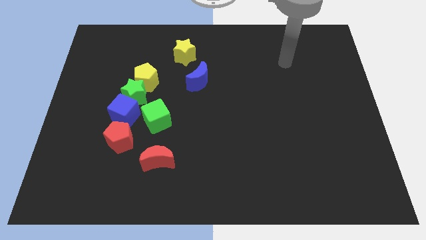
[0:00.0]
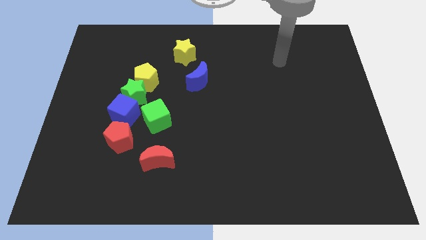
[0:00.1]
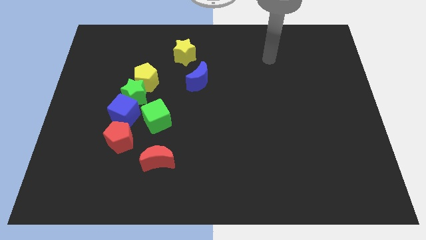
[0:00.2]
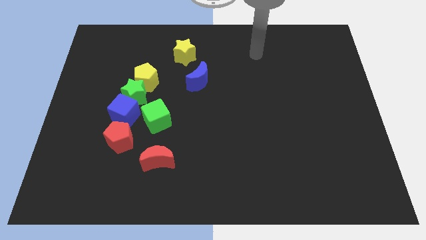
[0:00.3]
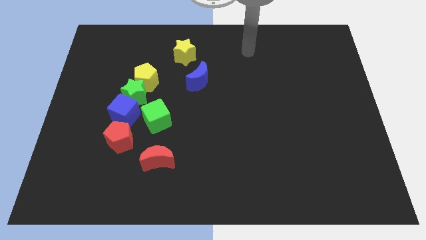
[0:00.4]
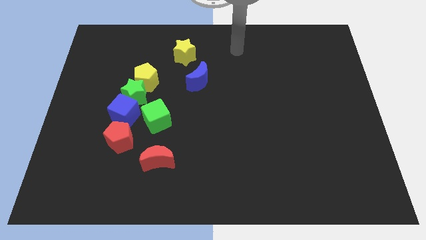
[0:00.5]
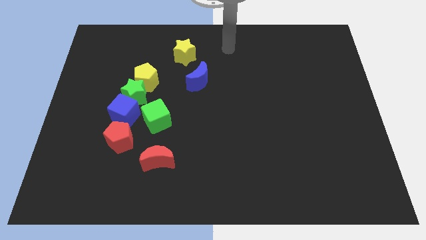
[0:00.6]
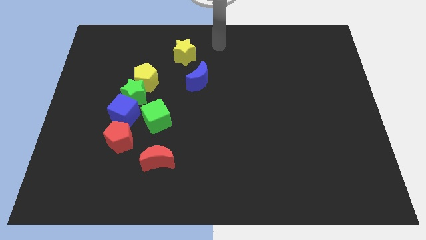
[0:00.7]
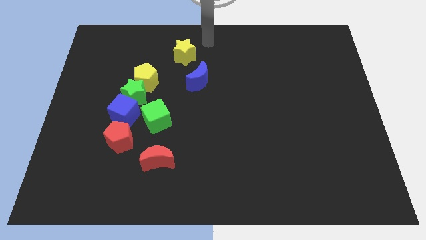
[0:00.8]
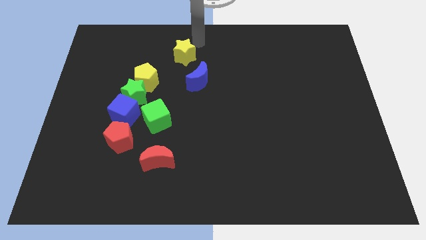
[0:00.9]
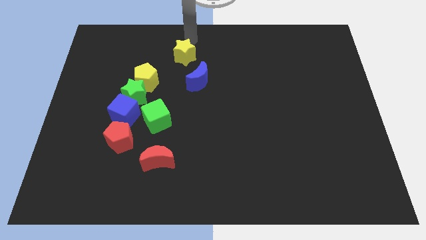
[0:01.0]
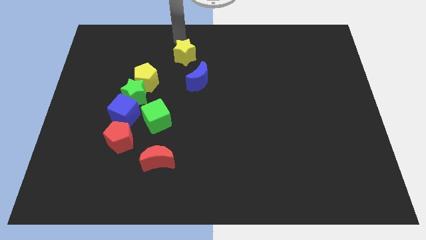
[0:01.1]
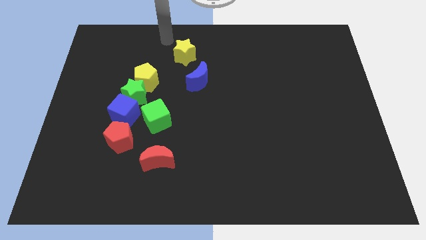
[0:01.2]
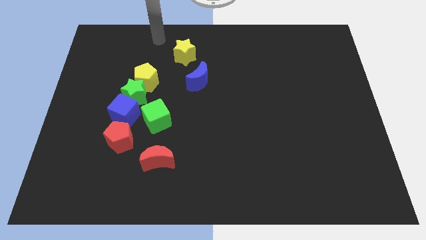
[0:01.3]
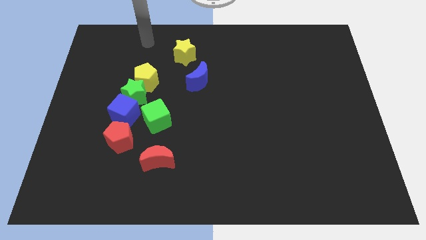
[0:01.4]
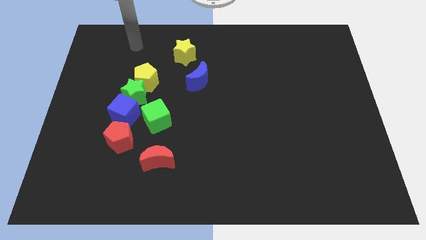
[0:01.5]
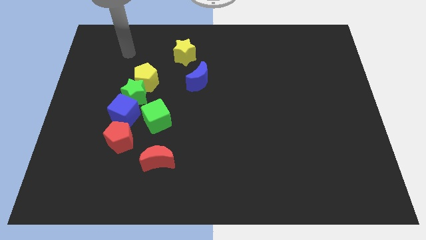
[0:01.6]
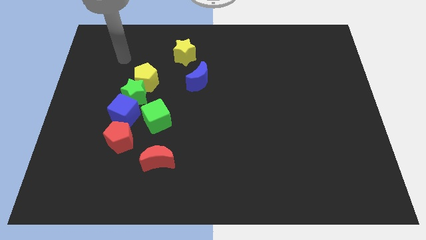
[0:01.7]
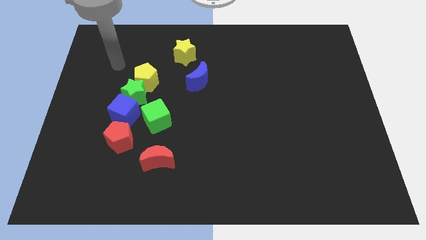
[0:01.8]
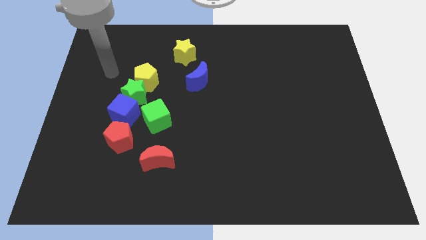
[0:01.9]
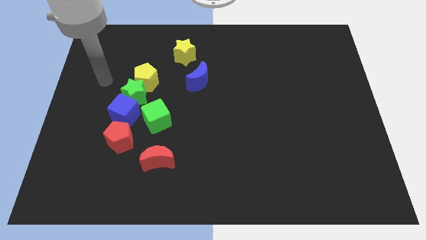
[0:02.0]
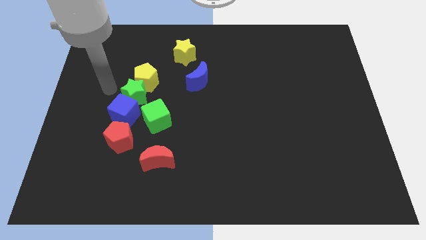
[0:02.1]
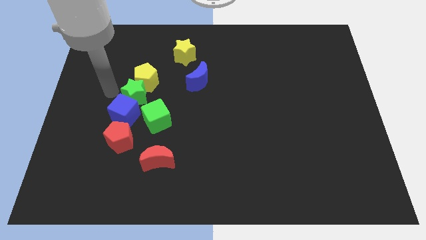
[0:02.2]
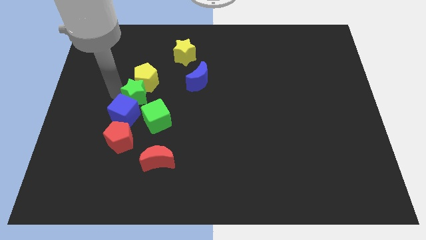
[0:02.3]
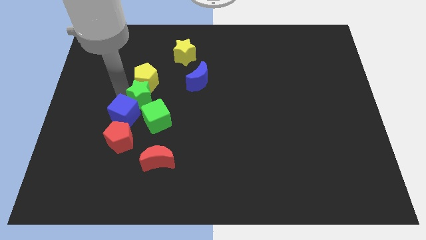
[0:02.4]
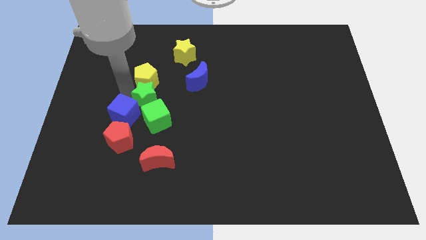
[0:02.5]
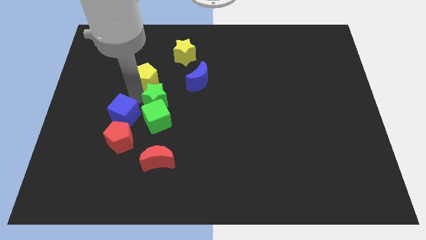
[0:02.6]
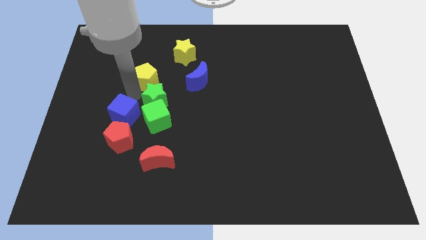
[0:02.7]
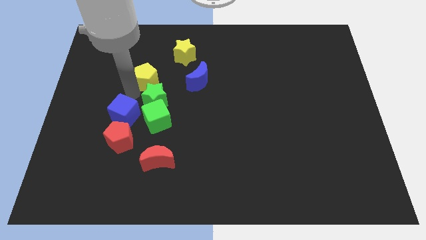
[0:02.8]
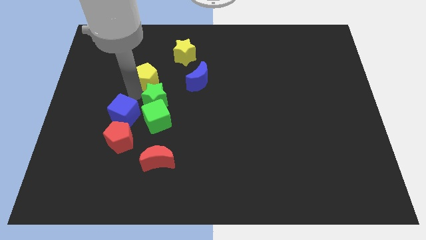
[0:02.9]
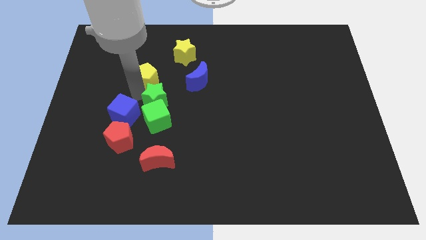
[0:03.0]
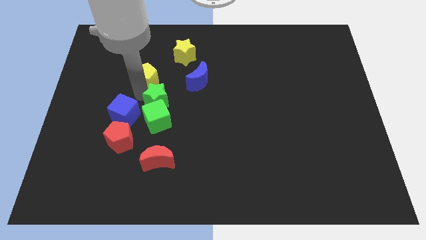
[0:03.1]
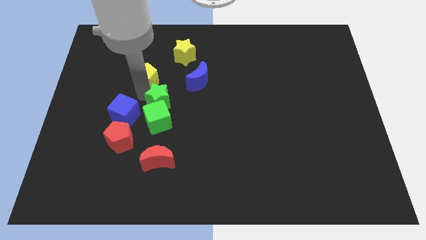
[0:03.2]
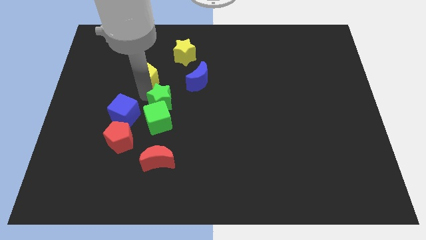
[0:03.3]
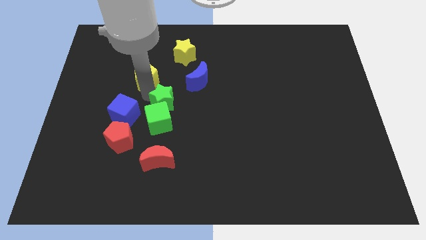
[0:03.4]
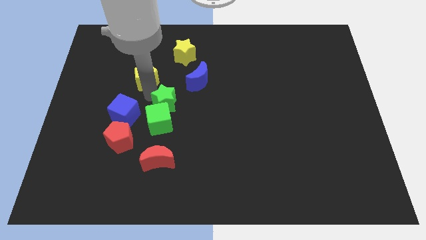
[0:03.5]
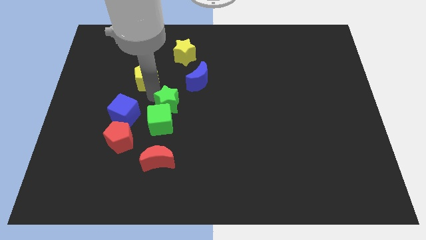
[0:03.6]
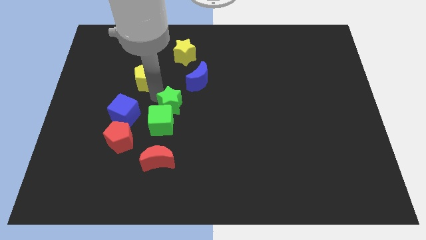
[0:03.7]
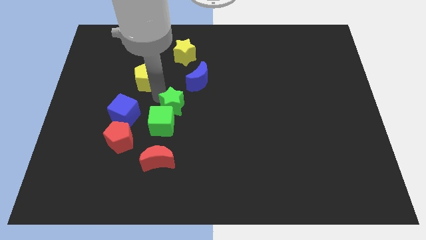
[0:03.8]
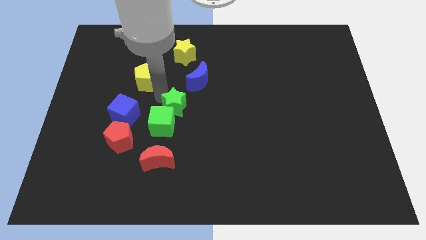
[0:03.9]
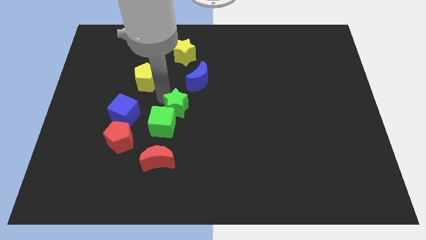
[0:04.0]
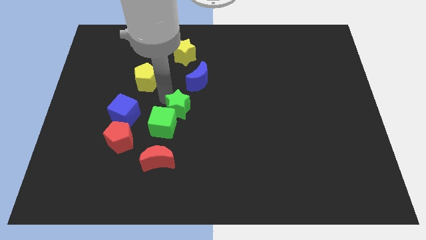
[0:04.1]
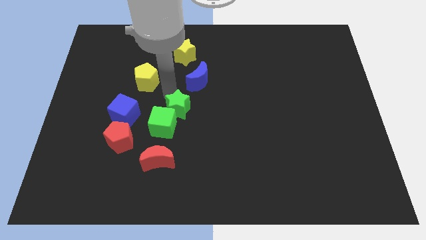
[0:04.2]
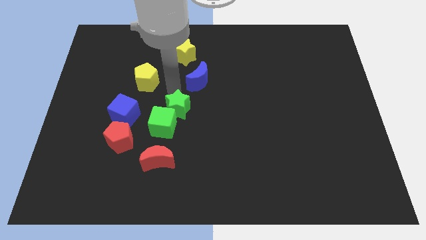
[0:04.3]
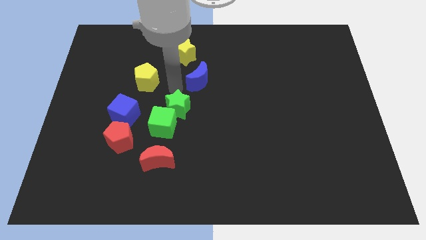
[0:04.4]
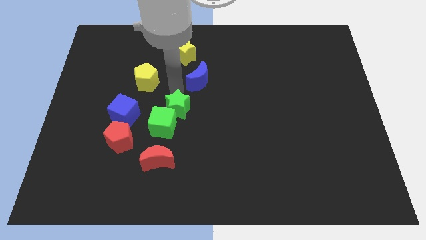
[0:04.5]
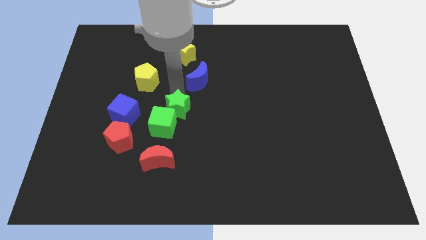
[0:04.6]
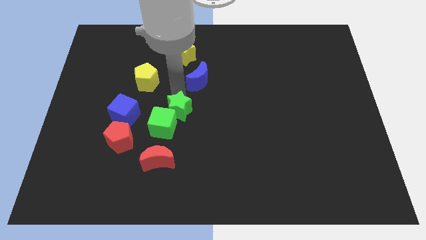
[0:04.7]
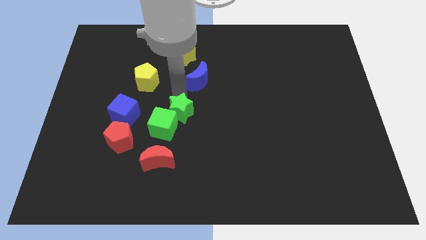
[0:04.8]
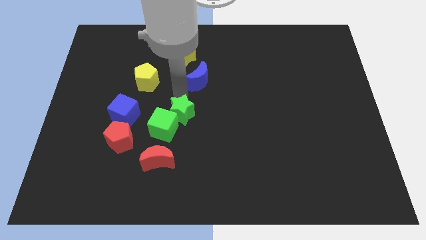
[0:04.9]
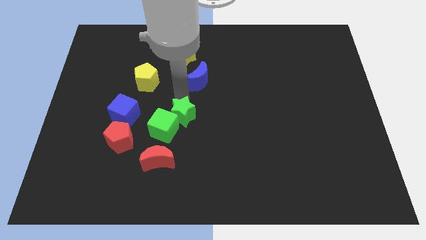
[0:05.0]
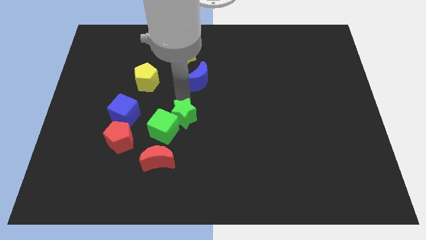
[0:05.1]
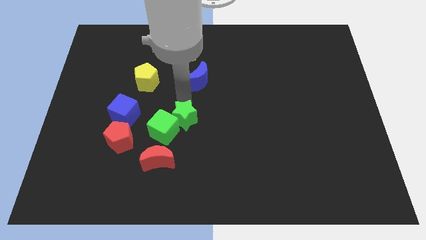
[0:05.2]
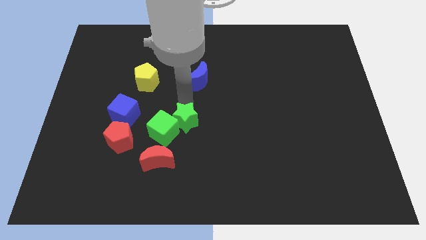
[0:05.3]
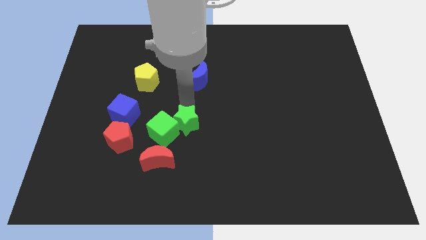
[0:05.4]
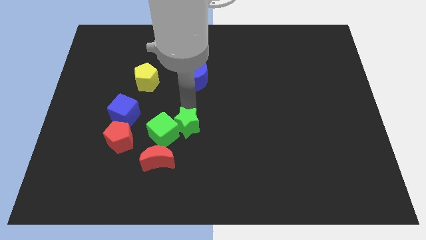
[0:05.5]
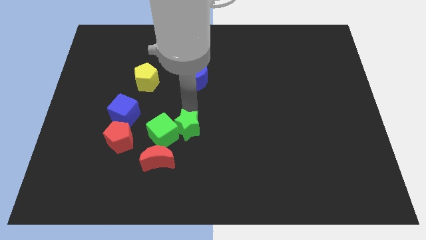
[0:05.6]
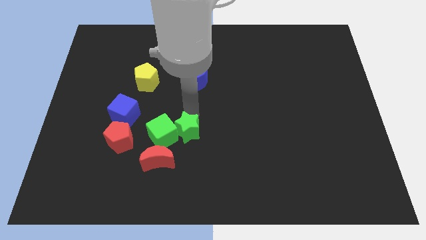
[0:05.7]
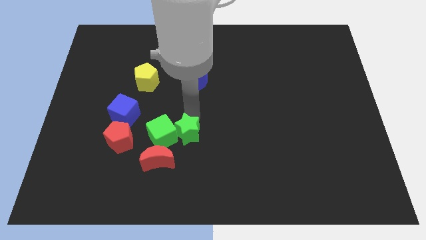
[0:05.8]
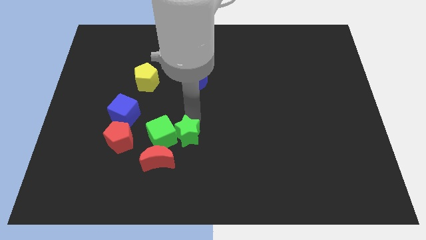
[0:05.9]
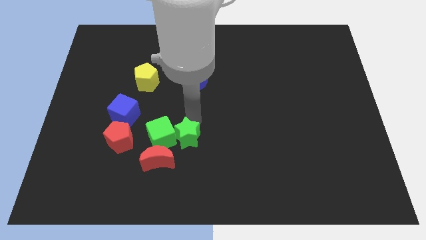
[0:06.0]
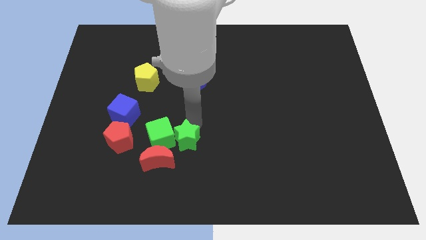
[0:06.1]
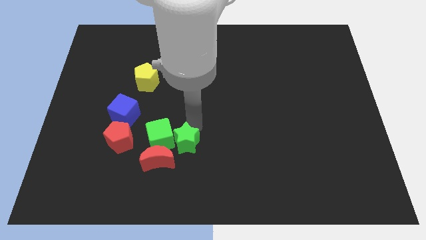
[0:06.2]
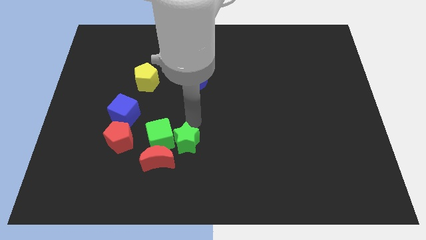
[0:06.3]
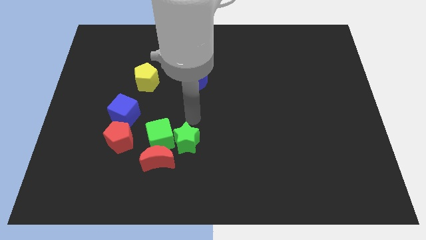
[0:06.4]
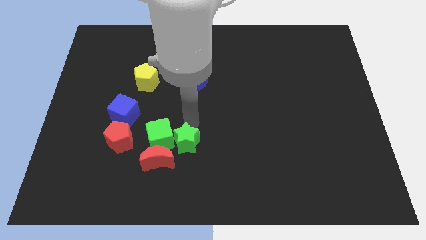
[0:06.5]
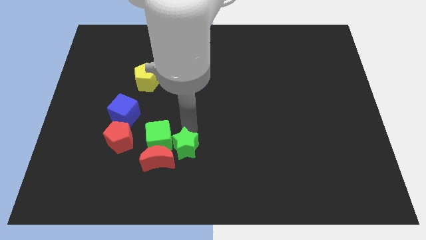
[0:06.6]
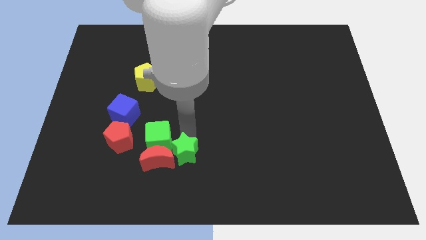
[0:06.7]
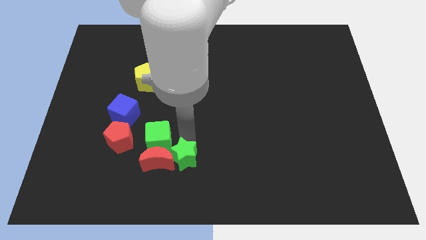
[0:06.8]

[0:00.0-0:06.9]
put the green star to the bottom right side of the red moon

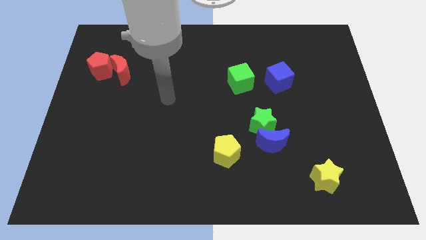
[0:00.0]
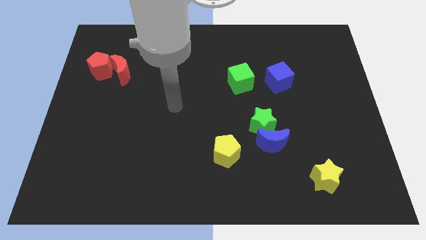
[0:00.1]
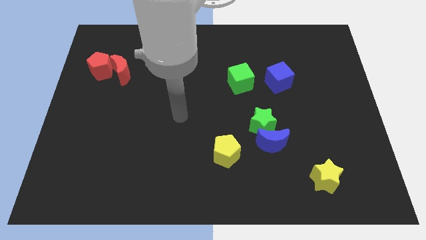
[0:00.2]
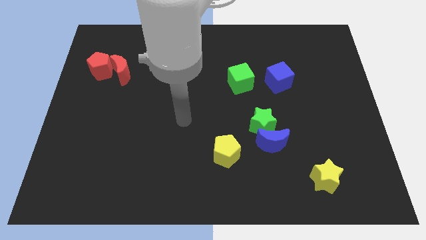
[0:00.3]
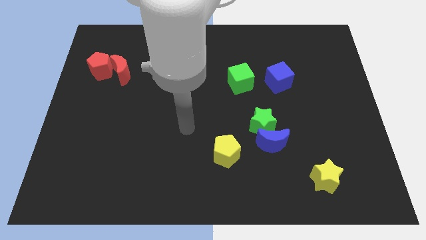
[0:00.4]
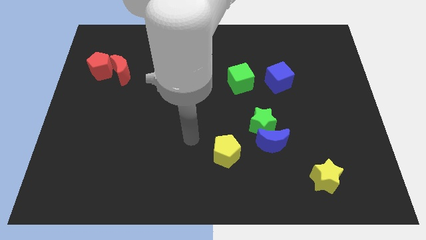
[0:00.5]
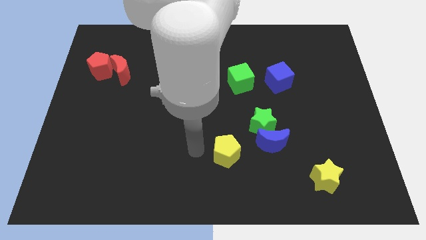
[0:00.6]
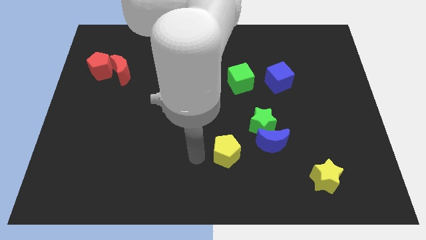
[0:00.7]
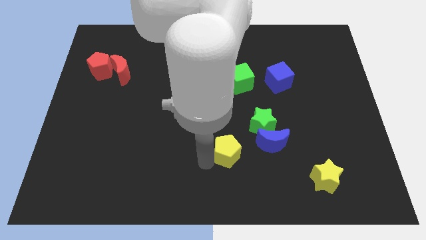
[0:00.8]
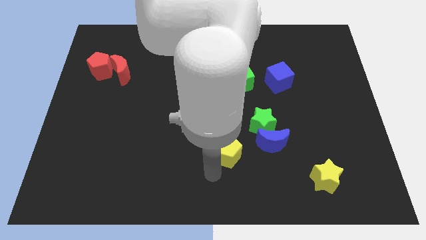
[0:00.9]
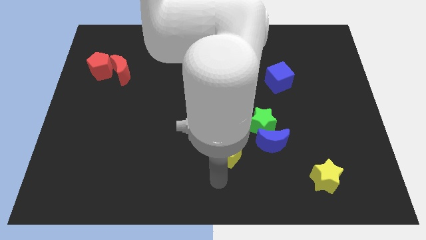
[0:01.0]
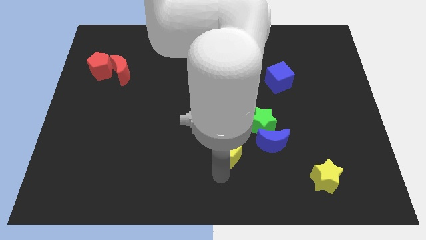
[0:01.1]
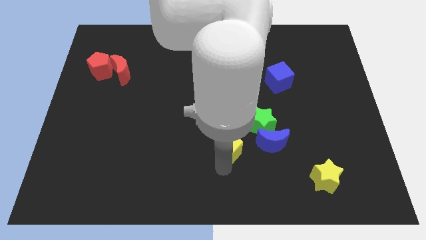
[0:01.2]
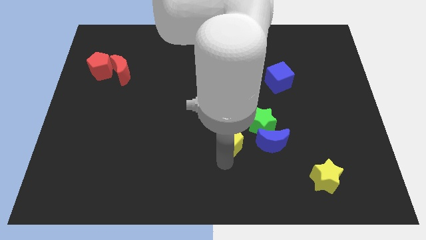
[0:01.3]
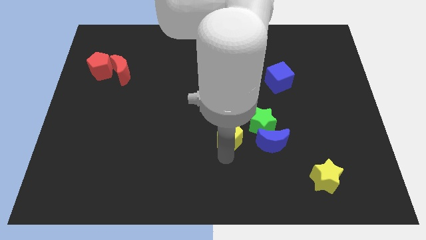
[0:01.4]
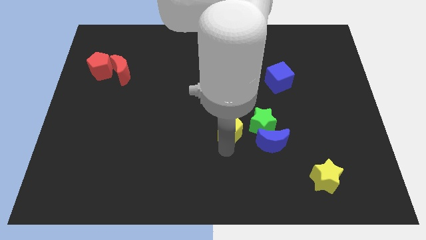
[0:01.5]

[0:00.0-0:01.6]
slide the yellow pentagon below the green cube
